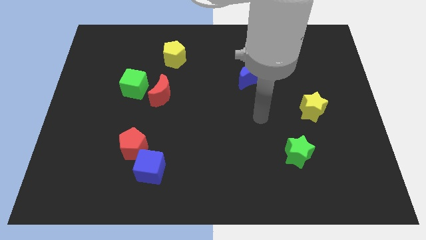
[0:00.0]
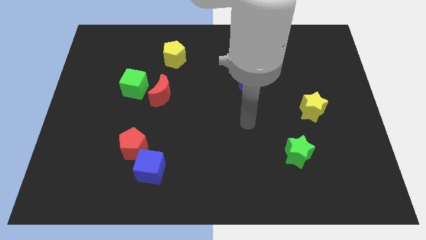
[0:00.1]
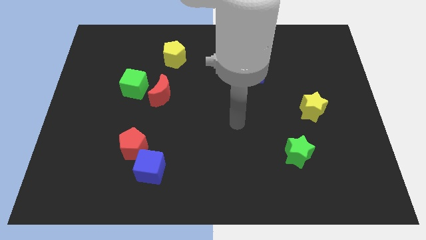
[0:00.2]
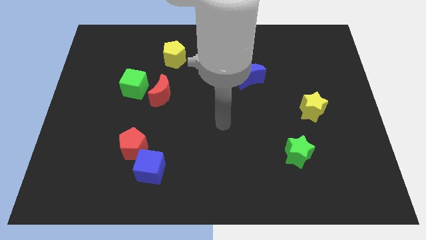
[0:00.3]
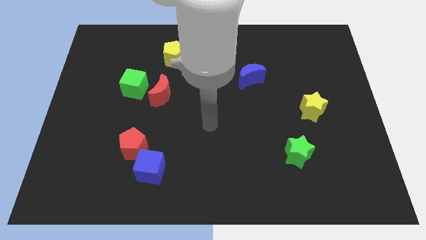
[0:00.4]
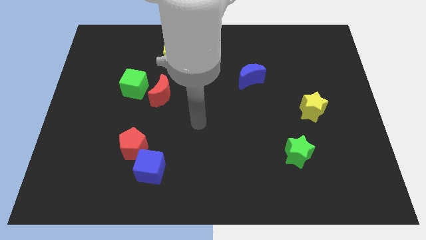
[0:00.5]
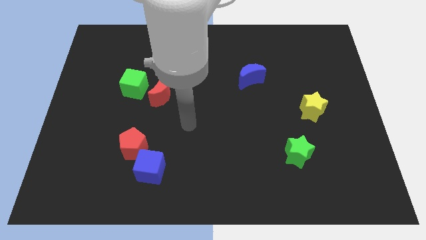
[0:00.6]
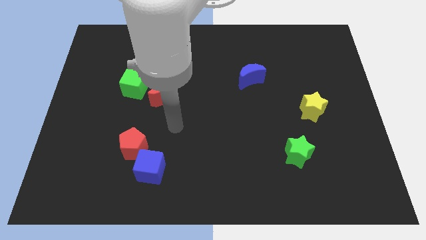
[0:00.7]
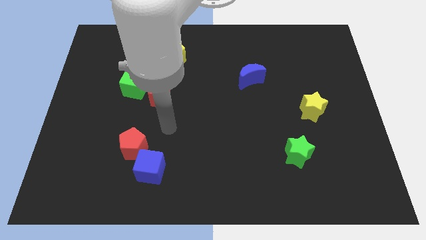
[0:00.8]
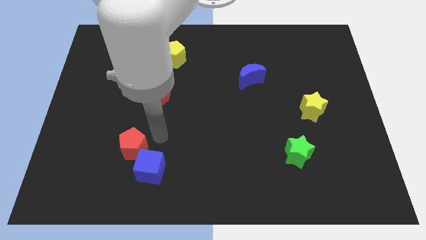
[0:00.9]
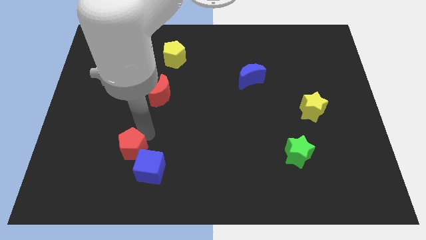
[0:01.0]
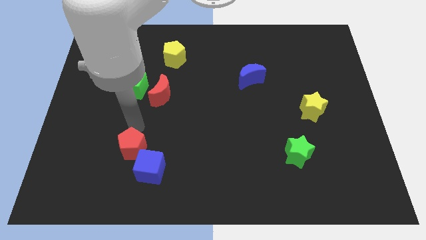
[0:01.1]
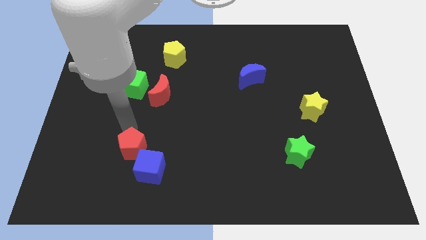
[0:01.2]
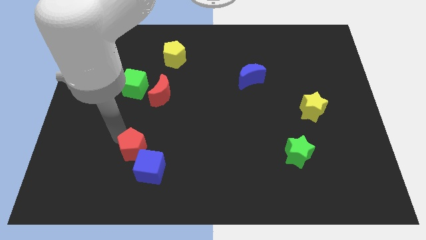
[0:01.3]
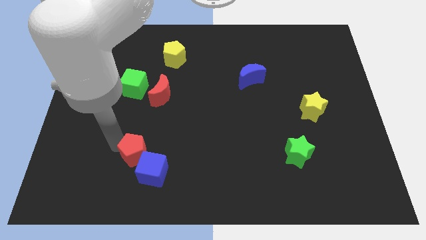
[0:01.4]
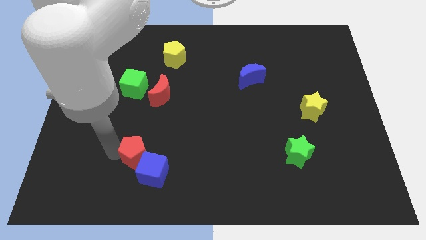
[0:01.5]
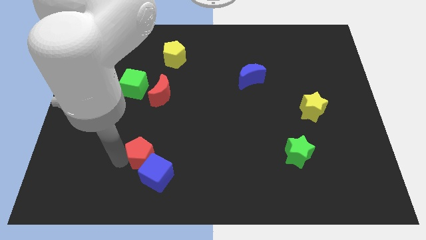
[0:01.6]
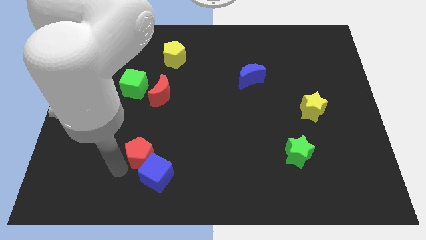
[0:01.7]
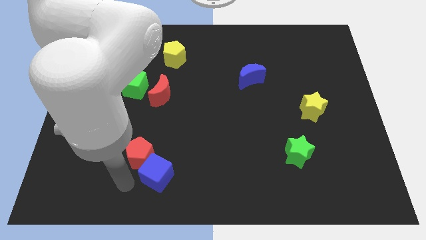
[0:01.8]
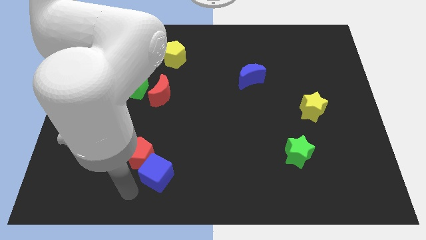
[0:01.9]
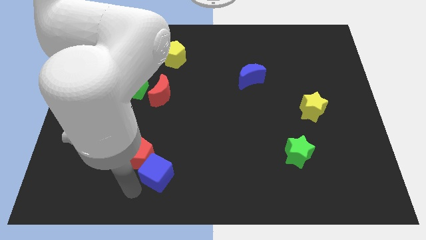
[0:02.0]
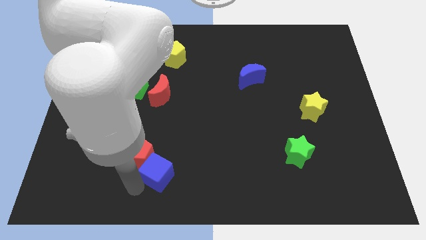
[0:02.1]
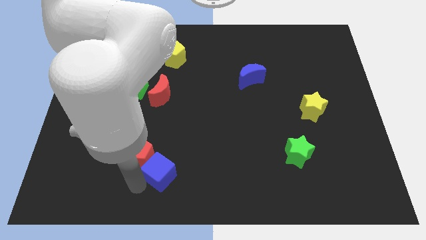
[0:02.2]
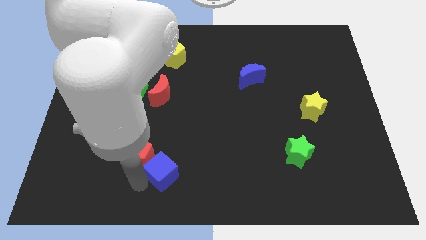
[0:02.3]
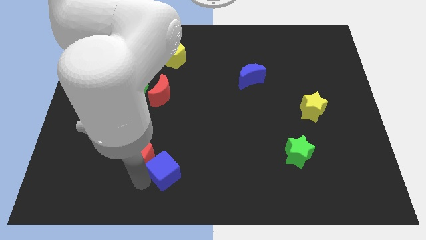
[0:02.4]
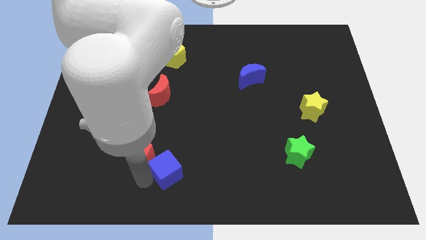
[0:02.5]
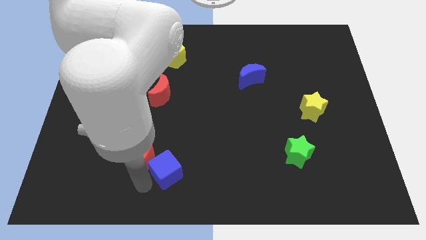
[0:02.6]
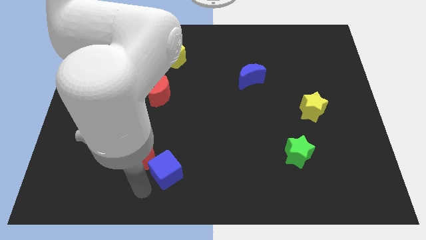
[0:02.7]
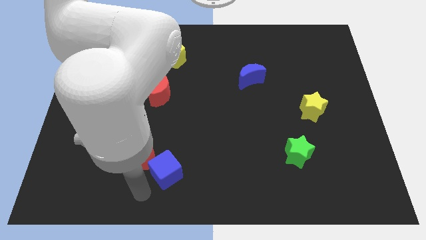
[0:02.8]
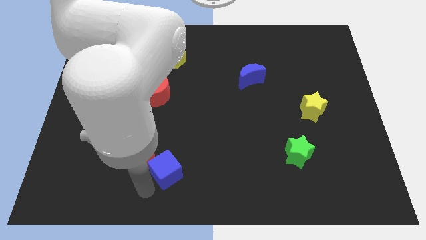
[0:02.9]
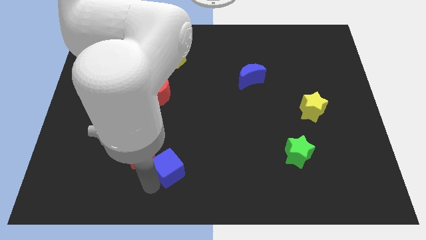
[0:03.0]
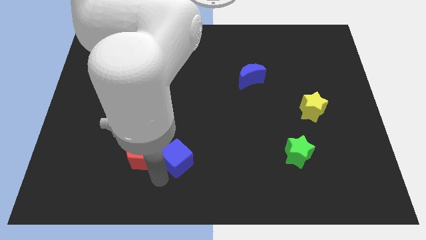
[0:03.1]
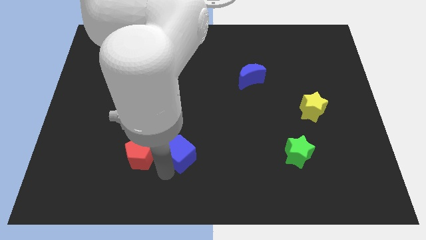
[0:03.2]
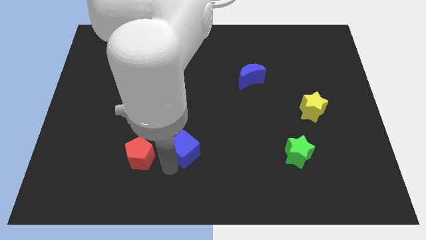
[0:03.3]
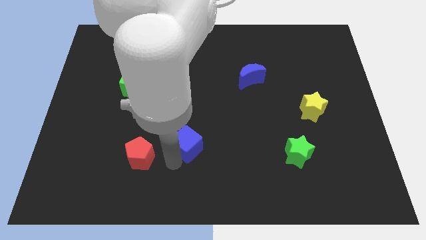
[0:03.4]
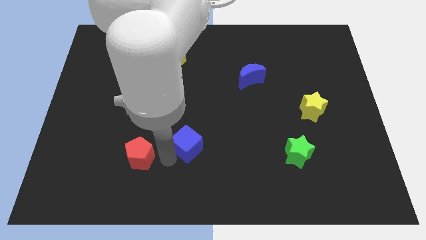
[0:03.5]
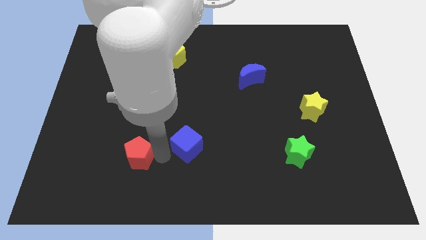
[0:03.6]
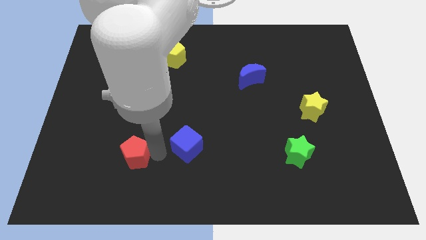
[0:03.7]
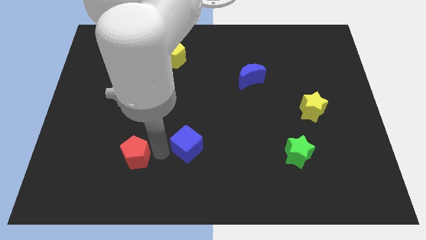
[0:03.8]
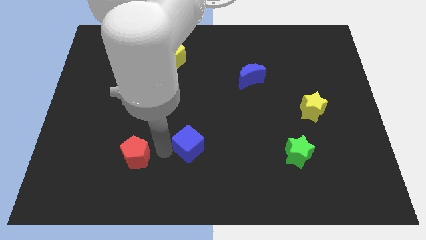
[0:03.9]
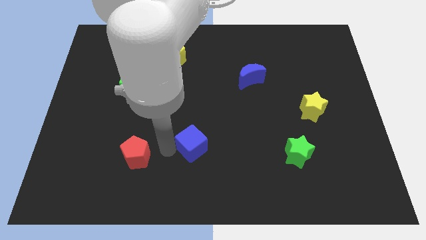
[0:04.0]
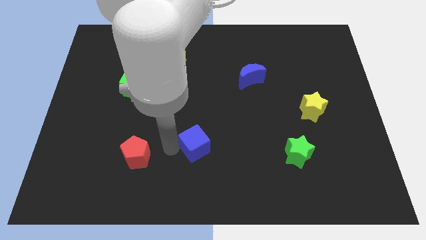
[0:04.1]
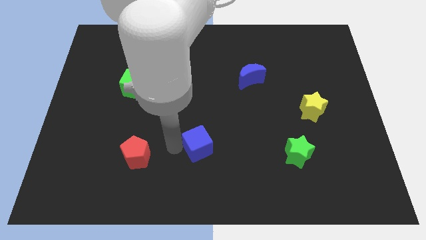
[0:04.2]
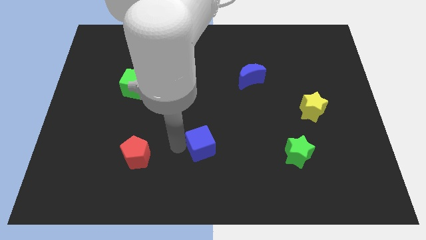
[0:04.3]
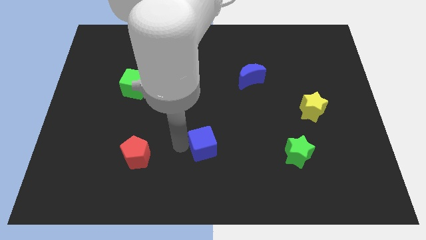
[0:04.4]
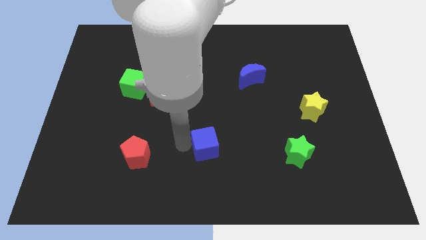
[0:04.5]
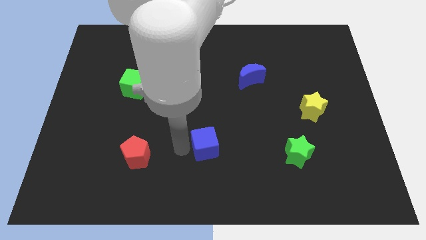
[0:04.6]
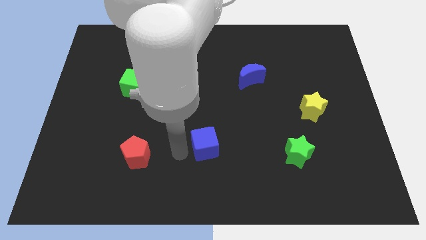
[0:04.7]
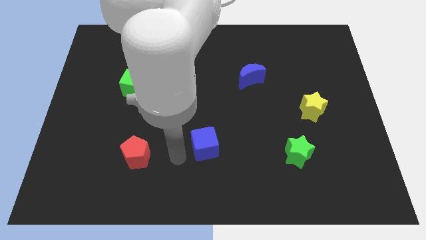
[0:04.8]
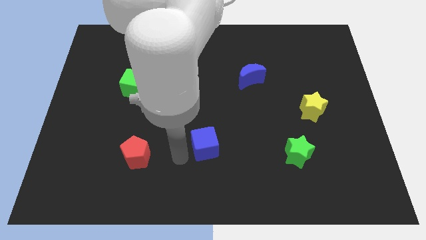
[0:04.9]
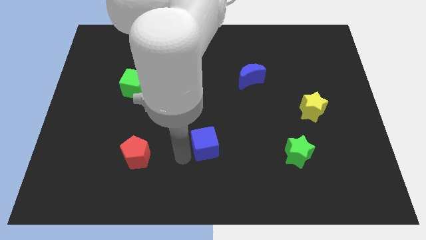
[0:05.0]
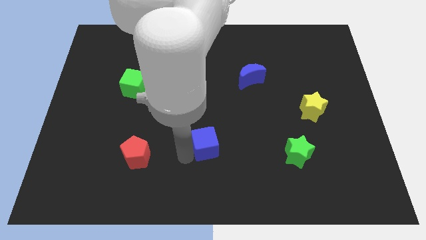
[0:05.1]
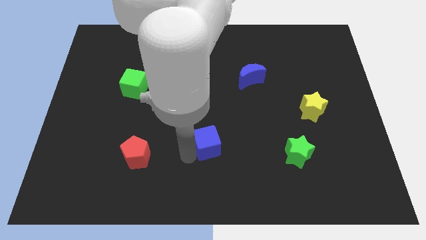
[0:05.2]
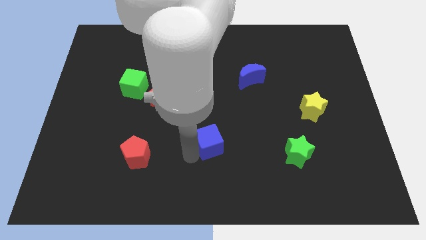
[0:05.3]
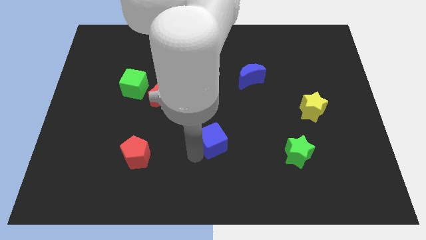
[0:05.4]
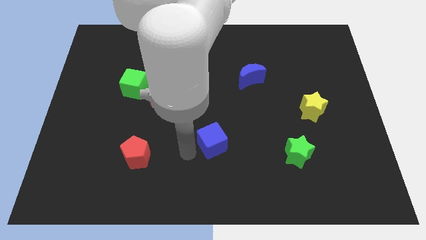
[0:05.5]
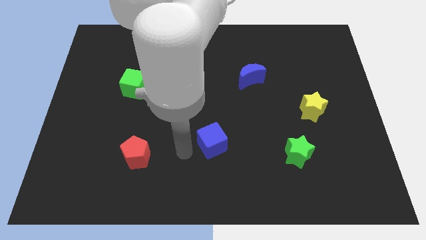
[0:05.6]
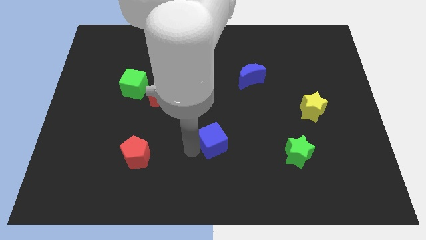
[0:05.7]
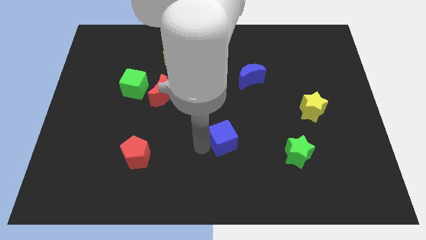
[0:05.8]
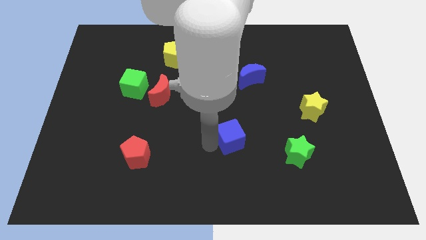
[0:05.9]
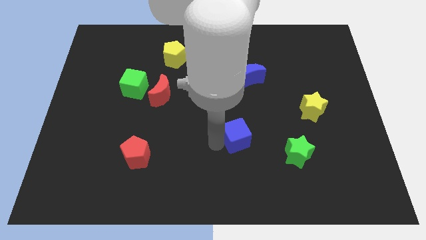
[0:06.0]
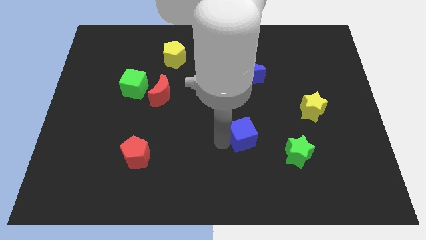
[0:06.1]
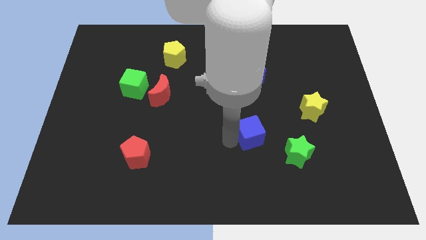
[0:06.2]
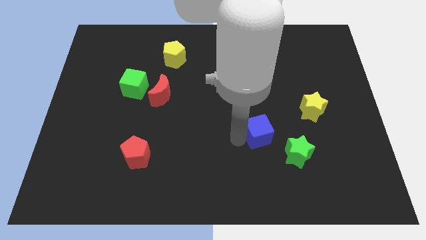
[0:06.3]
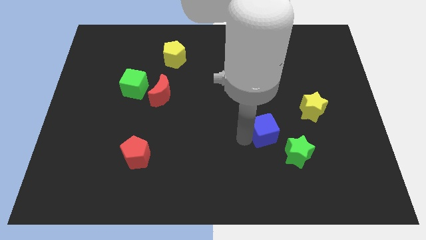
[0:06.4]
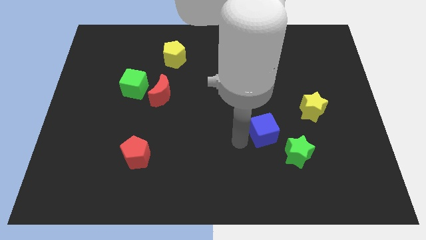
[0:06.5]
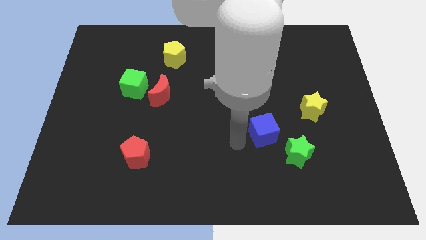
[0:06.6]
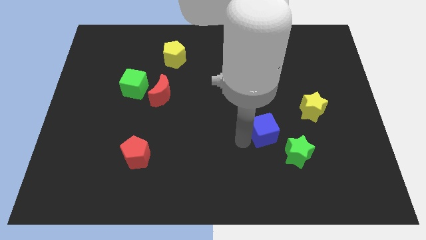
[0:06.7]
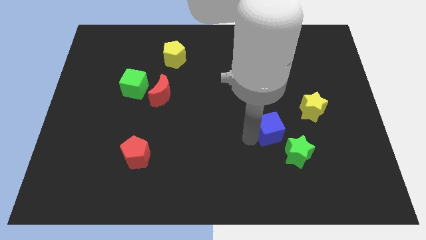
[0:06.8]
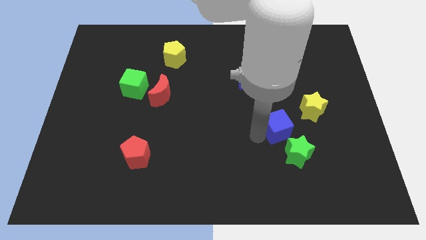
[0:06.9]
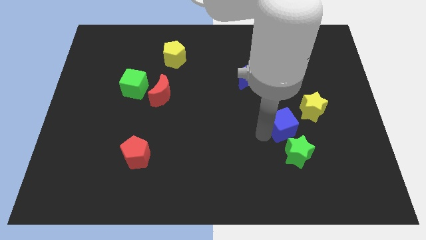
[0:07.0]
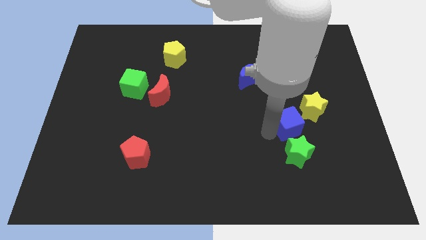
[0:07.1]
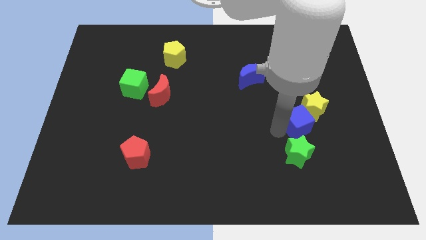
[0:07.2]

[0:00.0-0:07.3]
slide the blue cube to the yellow star

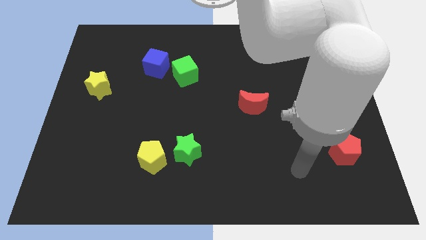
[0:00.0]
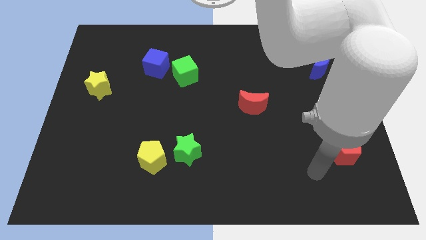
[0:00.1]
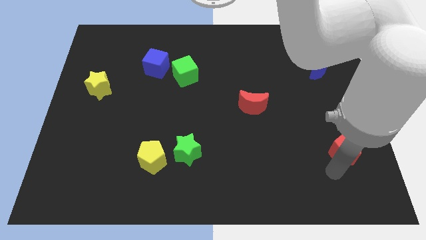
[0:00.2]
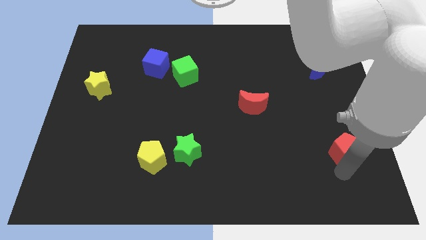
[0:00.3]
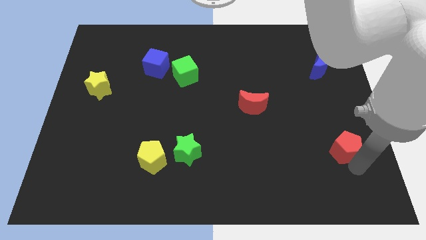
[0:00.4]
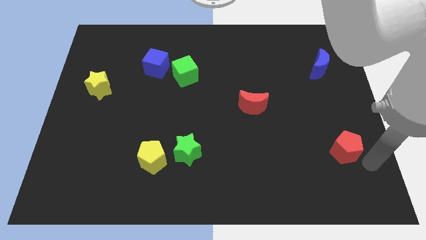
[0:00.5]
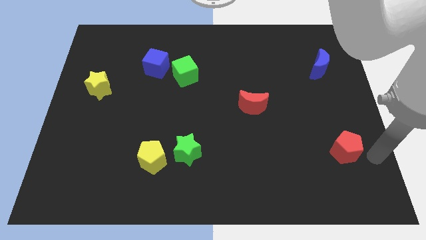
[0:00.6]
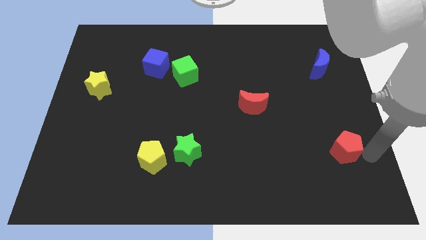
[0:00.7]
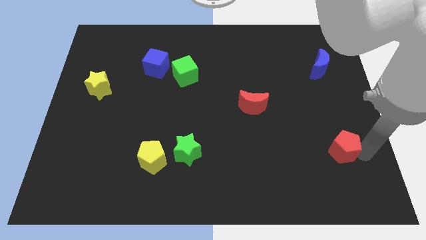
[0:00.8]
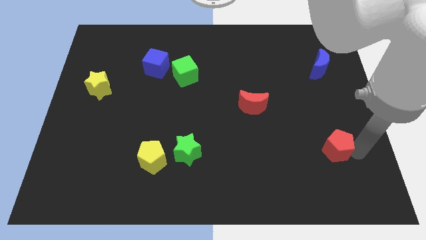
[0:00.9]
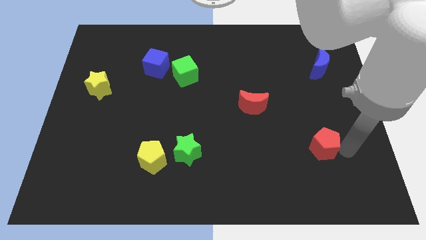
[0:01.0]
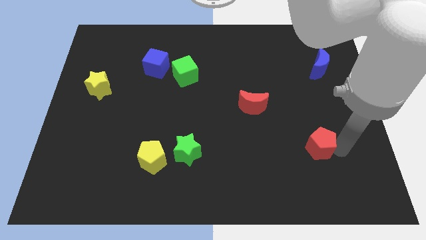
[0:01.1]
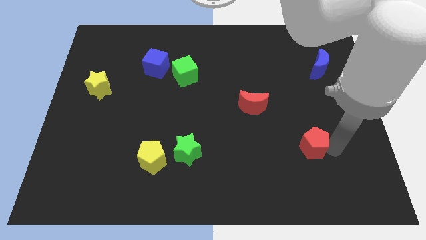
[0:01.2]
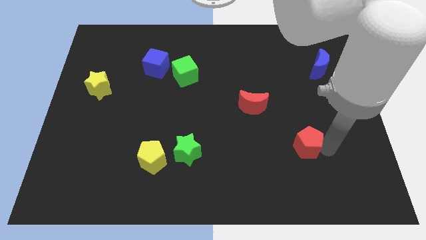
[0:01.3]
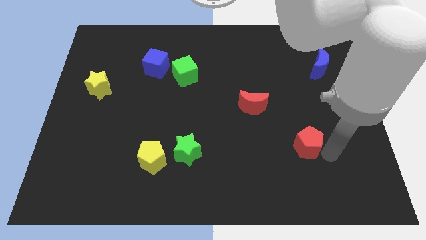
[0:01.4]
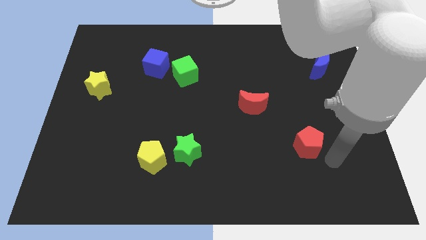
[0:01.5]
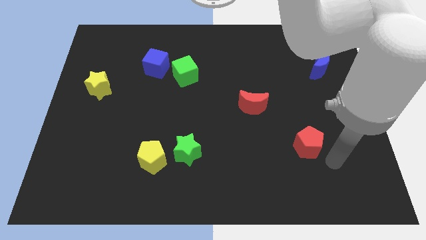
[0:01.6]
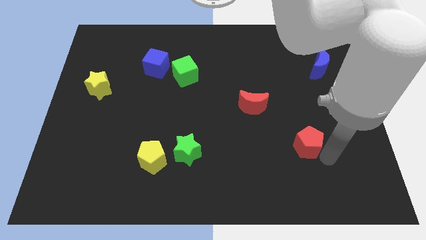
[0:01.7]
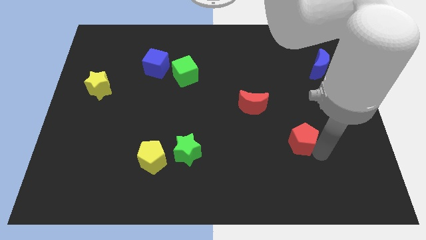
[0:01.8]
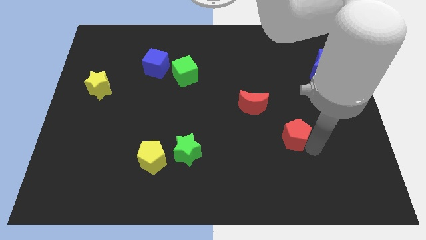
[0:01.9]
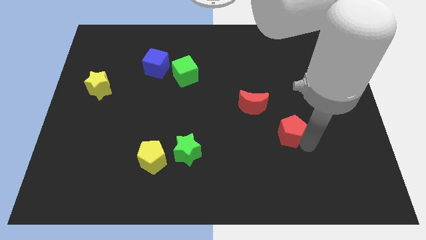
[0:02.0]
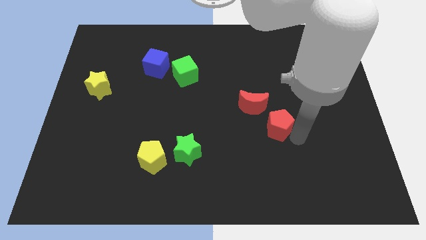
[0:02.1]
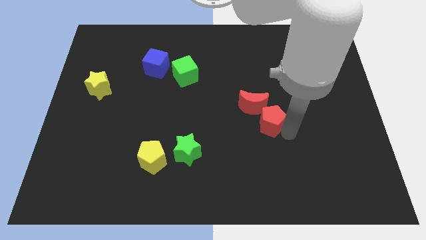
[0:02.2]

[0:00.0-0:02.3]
put the red pentagon towards the red moon
